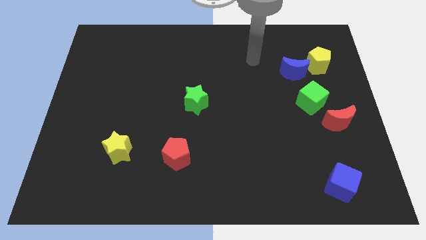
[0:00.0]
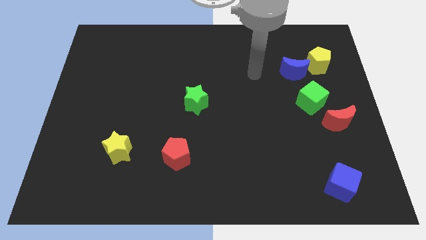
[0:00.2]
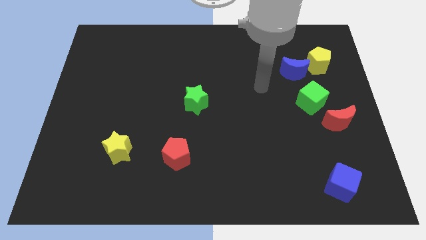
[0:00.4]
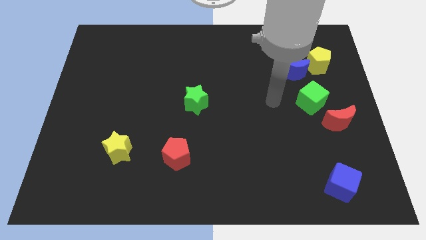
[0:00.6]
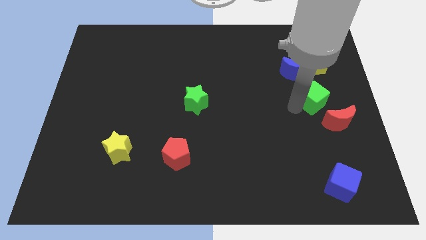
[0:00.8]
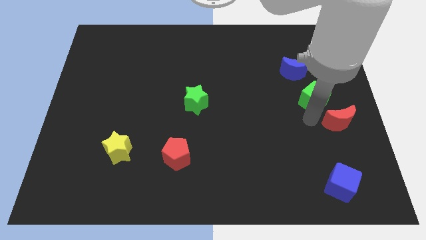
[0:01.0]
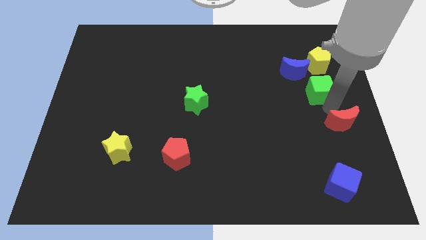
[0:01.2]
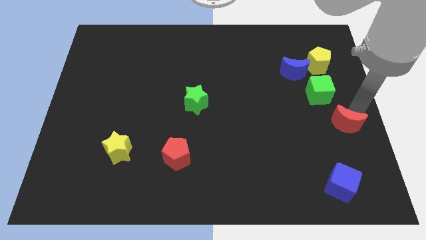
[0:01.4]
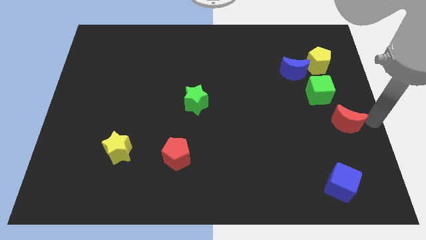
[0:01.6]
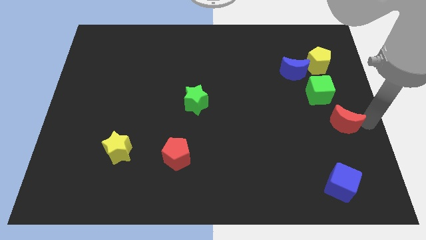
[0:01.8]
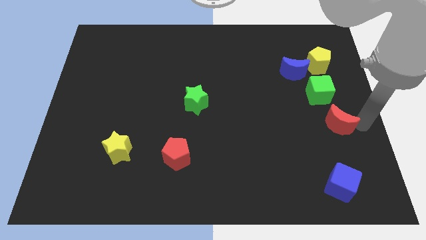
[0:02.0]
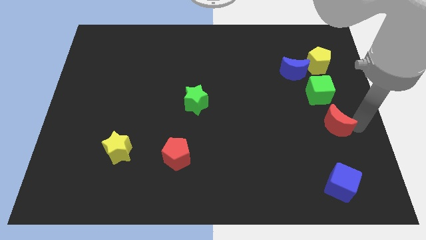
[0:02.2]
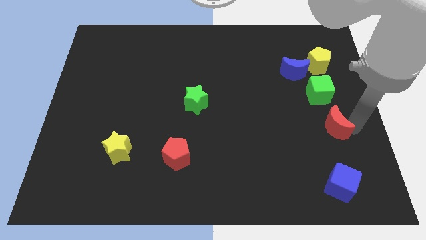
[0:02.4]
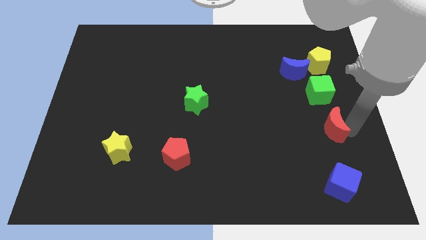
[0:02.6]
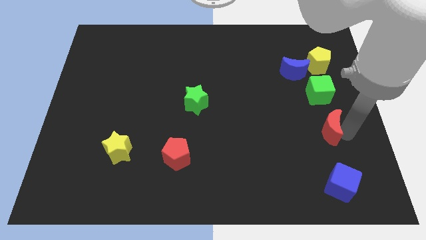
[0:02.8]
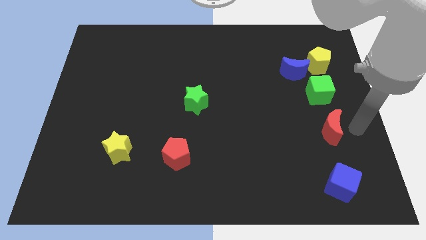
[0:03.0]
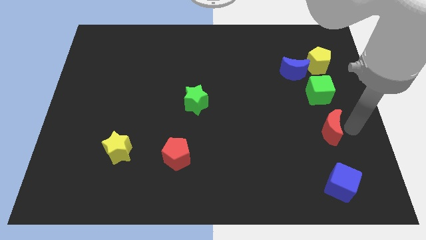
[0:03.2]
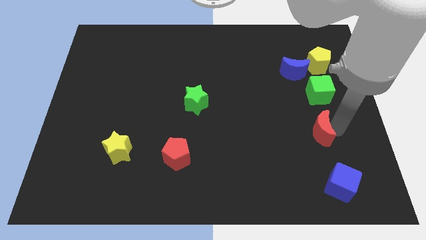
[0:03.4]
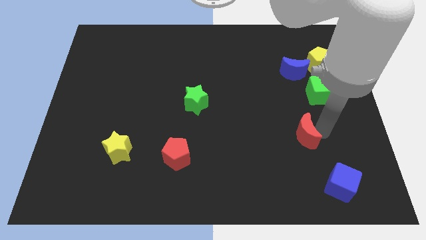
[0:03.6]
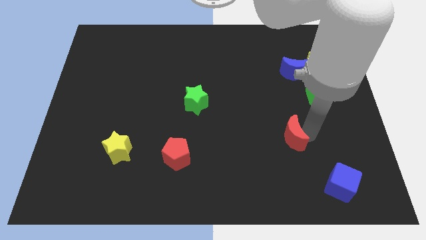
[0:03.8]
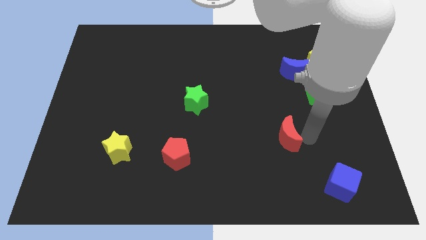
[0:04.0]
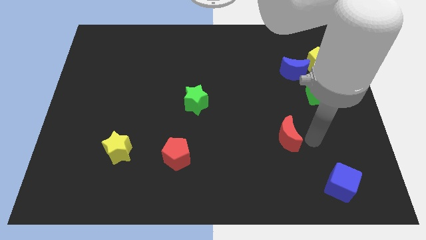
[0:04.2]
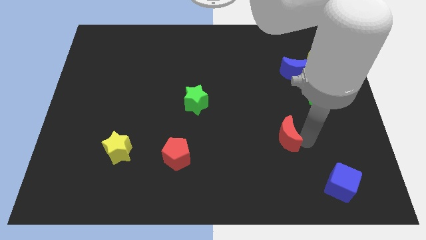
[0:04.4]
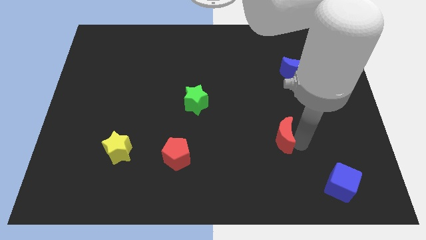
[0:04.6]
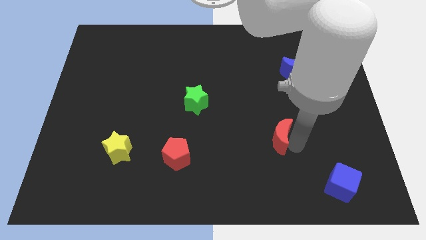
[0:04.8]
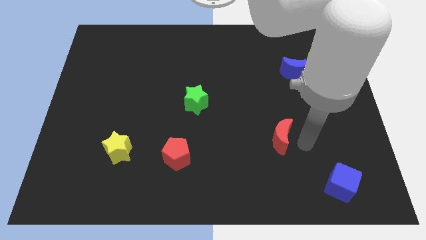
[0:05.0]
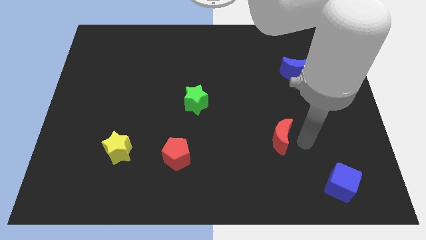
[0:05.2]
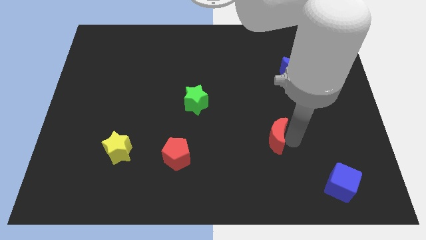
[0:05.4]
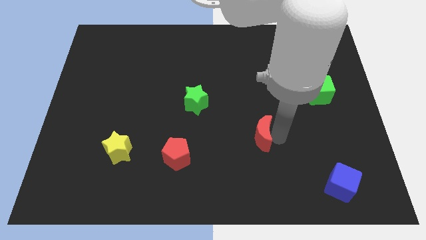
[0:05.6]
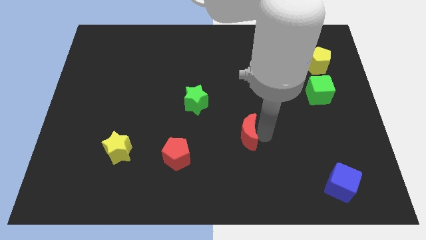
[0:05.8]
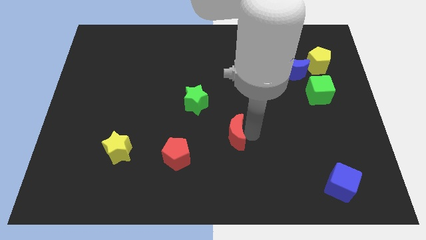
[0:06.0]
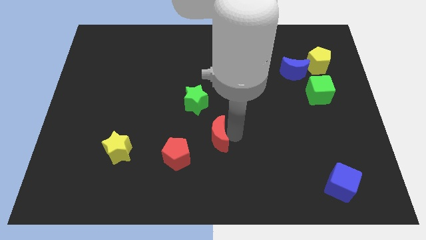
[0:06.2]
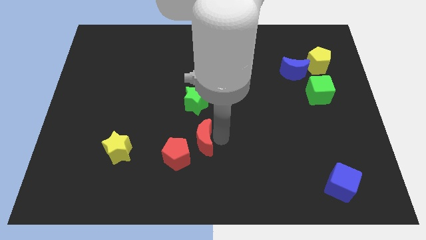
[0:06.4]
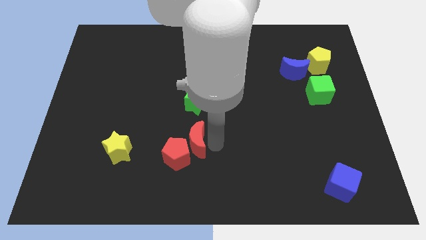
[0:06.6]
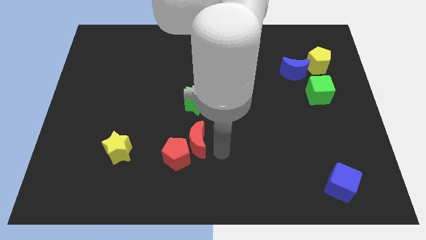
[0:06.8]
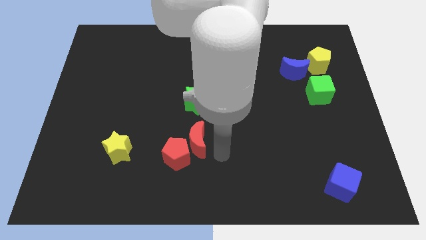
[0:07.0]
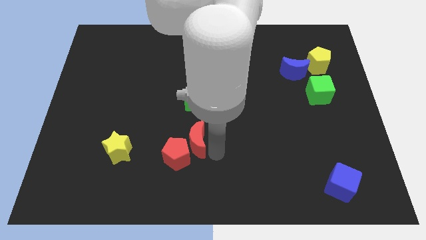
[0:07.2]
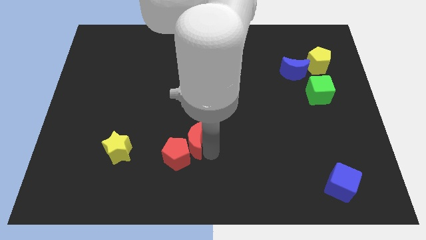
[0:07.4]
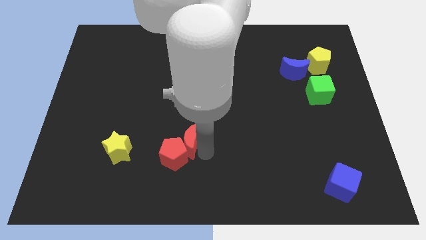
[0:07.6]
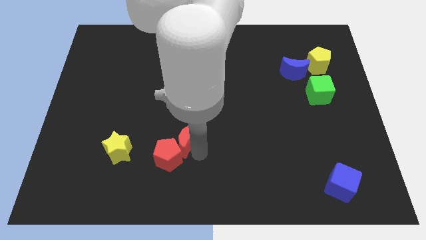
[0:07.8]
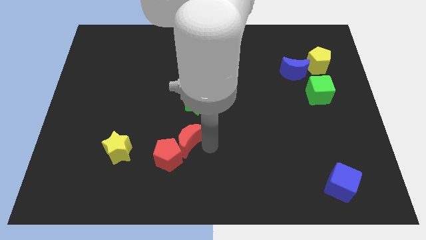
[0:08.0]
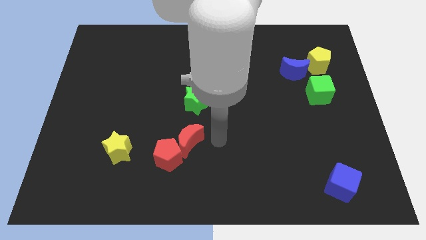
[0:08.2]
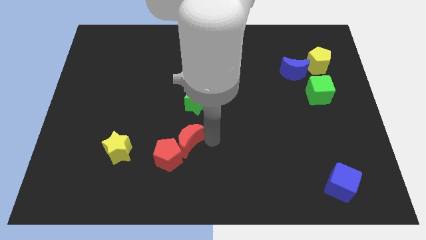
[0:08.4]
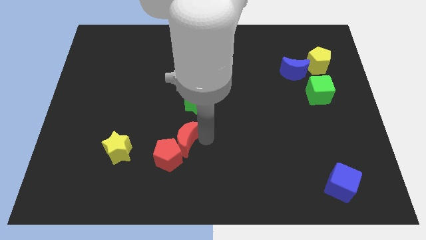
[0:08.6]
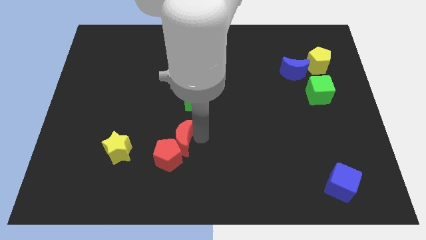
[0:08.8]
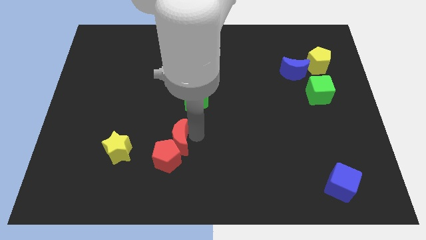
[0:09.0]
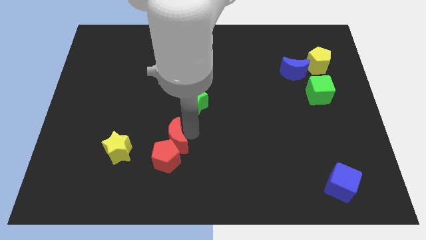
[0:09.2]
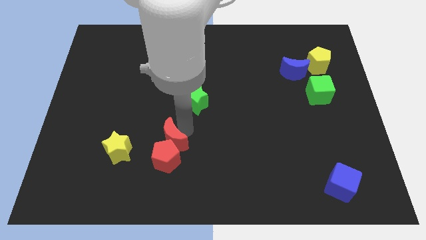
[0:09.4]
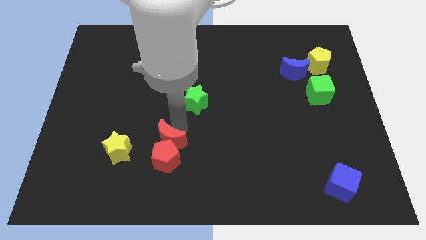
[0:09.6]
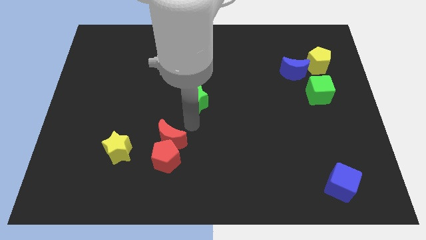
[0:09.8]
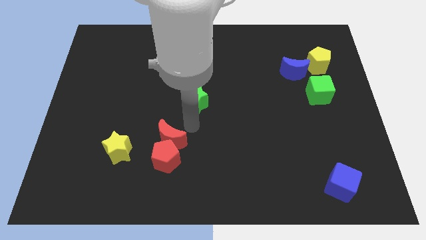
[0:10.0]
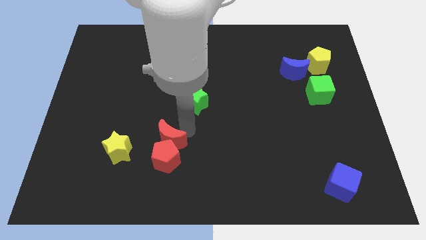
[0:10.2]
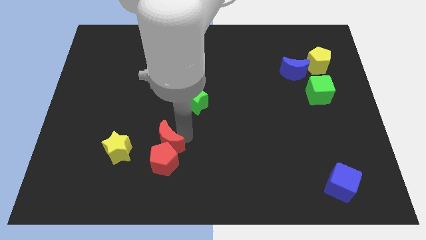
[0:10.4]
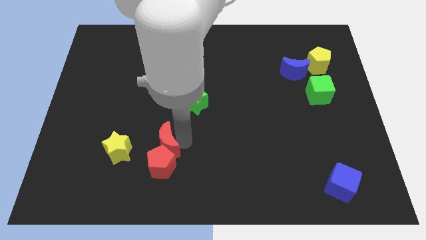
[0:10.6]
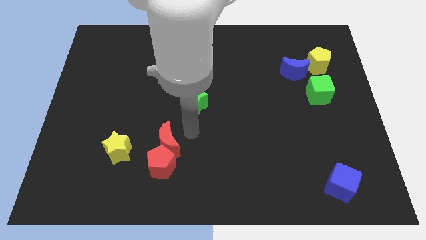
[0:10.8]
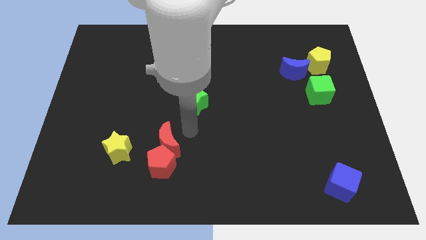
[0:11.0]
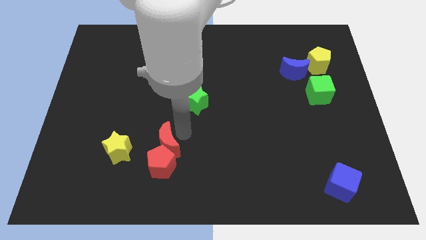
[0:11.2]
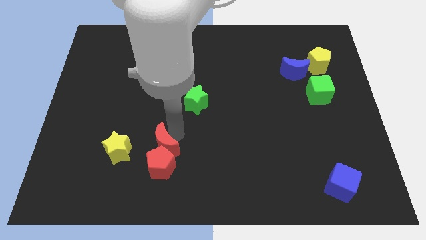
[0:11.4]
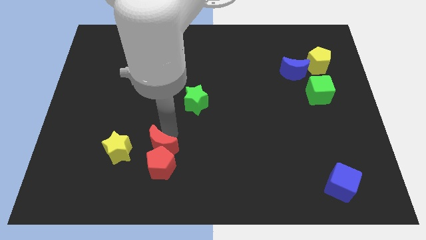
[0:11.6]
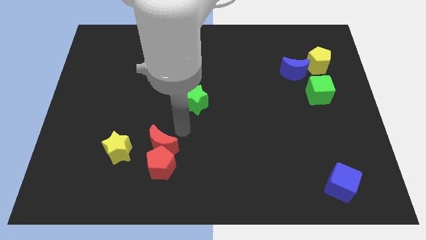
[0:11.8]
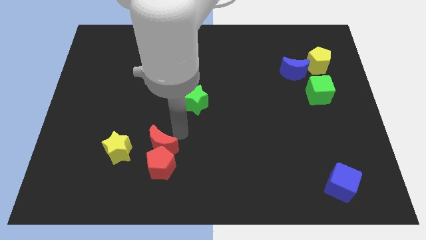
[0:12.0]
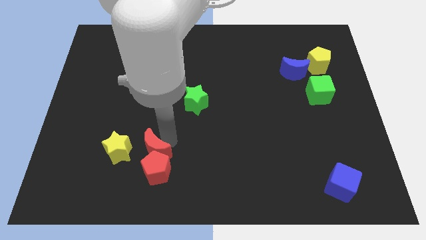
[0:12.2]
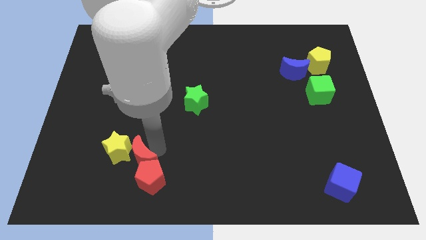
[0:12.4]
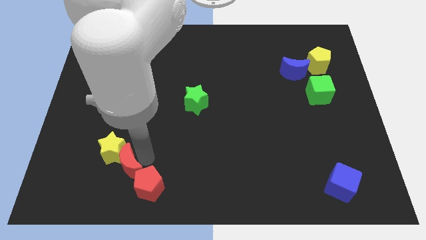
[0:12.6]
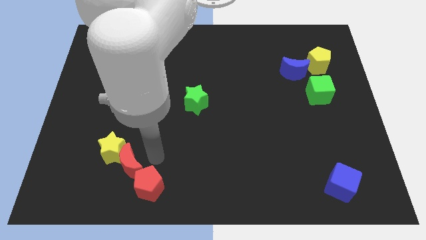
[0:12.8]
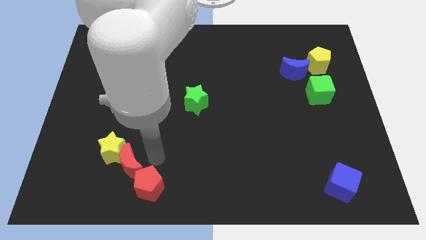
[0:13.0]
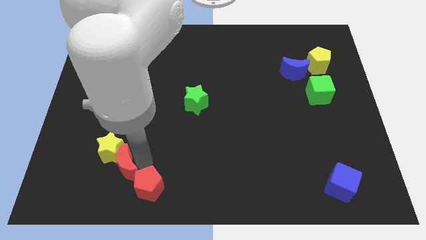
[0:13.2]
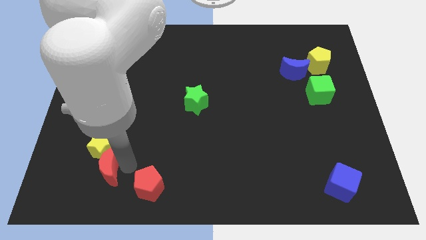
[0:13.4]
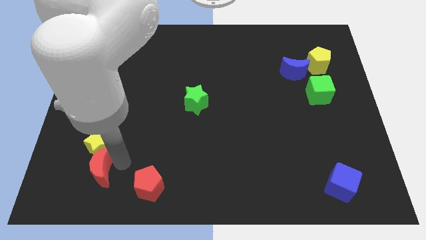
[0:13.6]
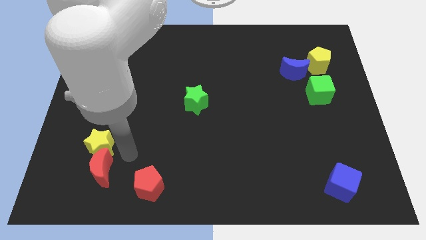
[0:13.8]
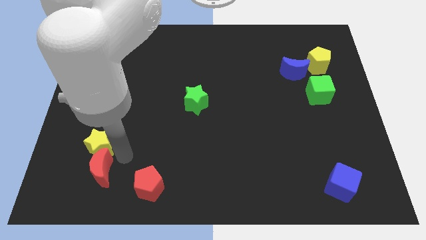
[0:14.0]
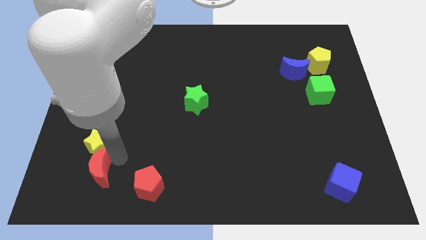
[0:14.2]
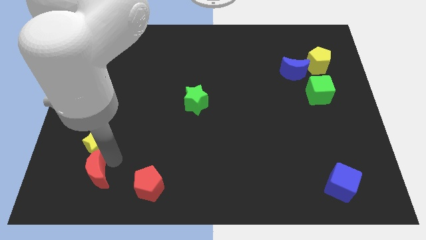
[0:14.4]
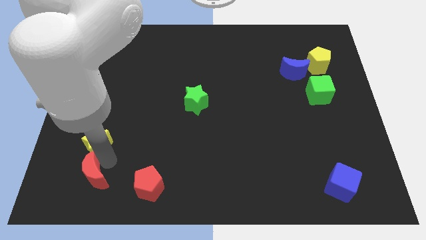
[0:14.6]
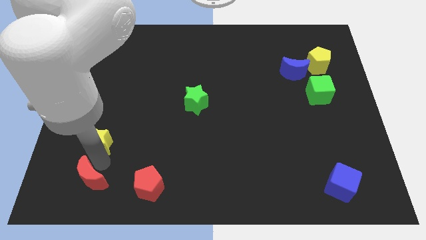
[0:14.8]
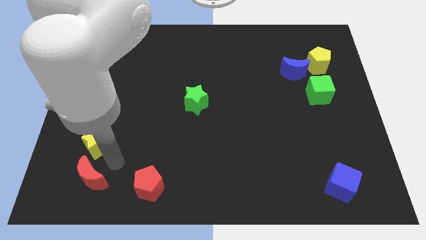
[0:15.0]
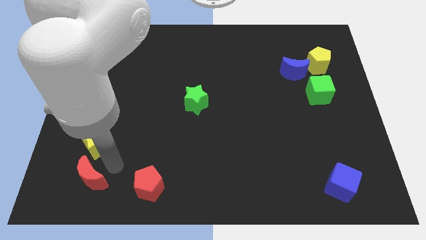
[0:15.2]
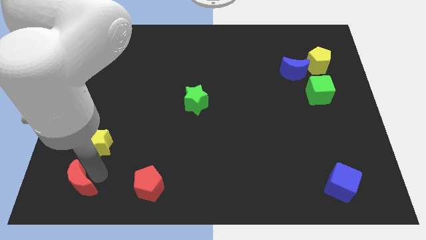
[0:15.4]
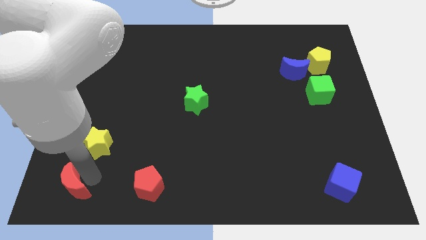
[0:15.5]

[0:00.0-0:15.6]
move the red moon to the lower left corner
